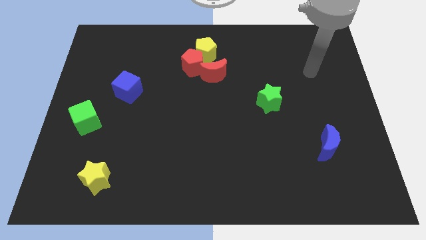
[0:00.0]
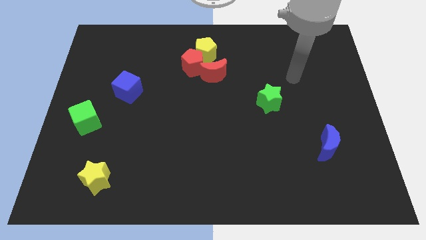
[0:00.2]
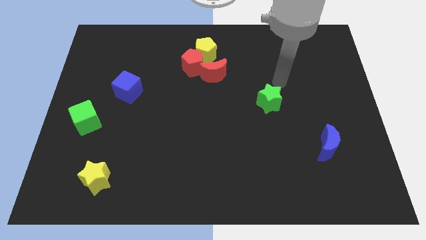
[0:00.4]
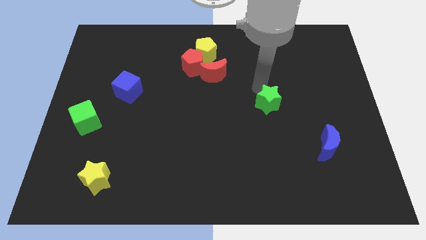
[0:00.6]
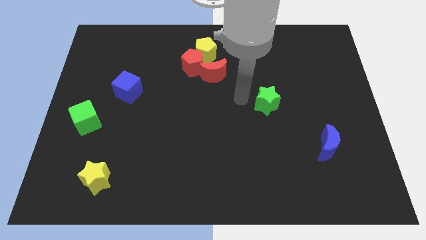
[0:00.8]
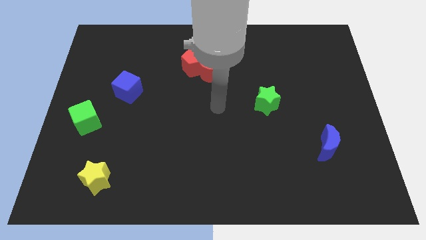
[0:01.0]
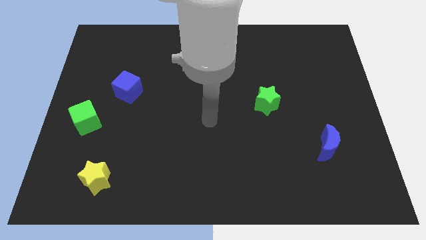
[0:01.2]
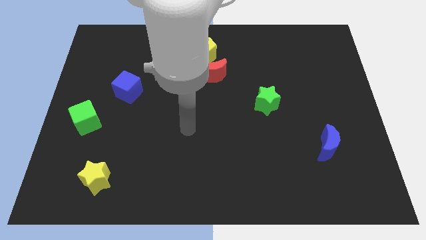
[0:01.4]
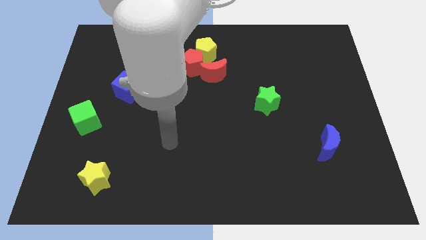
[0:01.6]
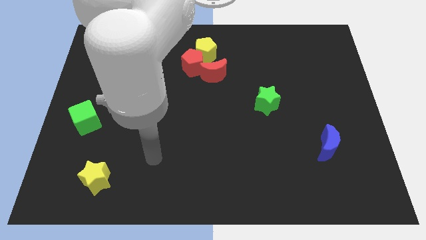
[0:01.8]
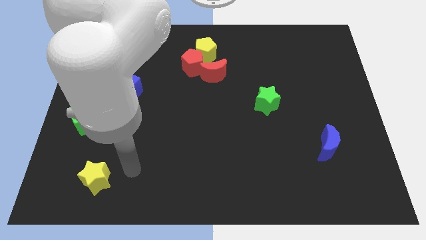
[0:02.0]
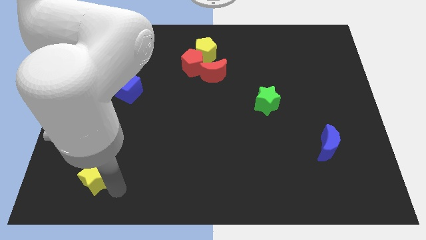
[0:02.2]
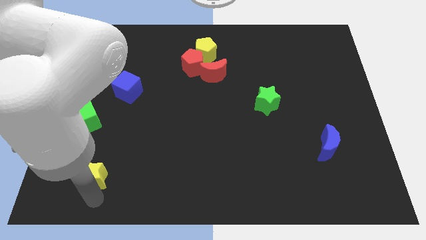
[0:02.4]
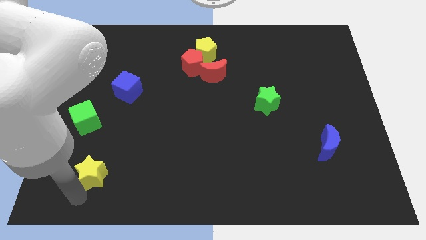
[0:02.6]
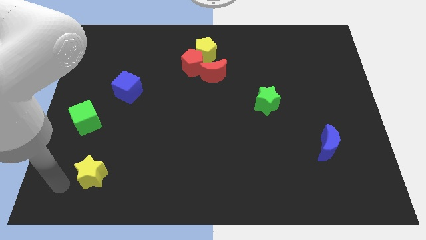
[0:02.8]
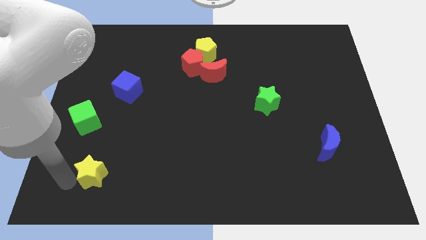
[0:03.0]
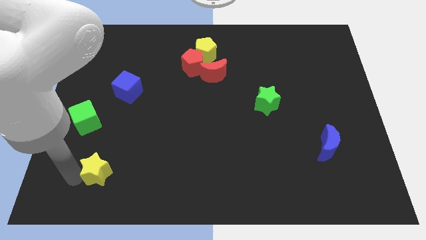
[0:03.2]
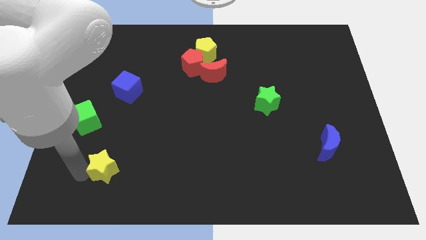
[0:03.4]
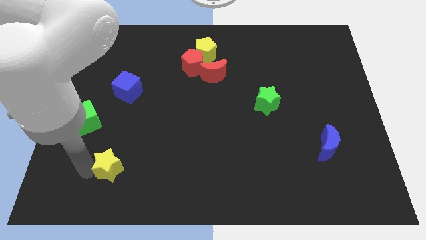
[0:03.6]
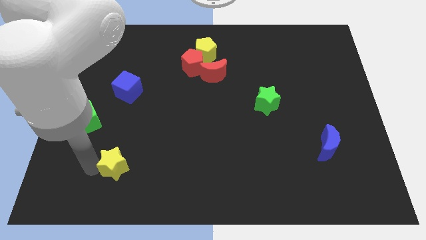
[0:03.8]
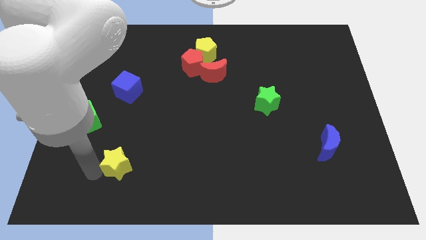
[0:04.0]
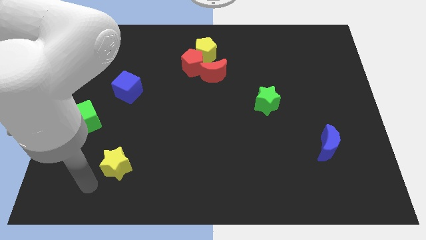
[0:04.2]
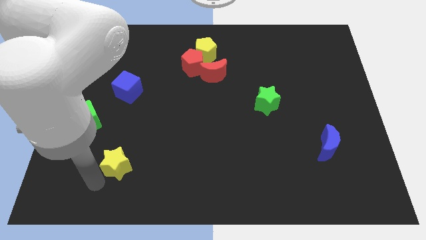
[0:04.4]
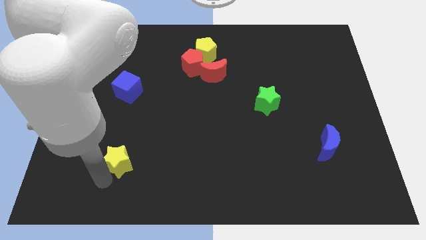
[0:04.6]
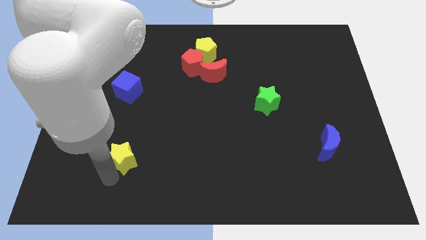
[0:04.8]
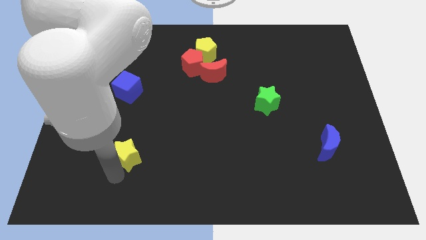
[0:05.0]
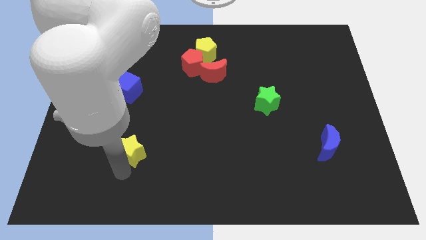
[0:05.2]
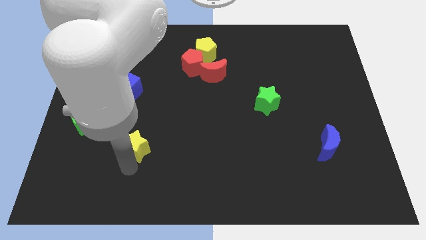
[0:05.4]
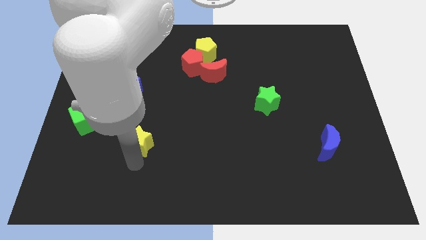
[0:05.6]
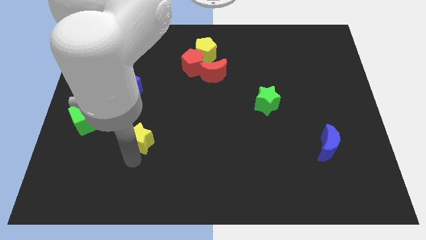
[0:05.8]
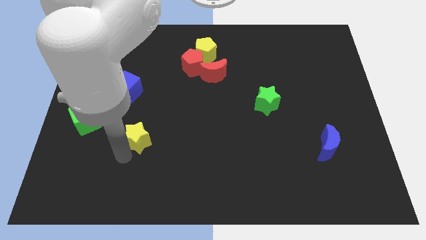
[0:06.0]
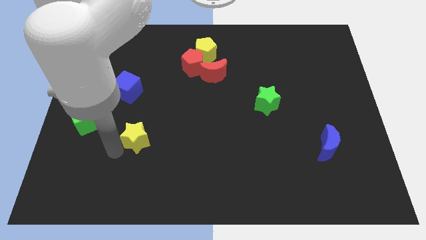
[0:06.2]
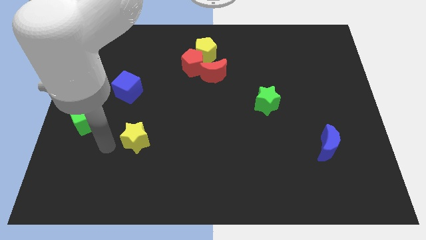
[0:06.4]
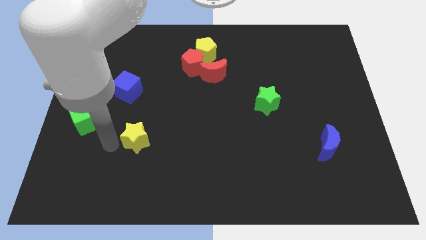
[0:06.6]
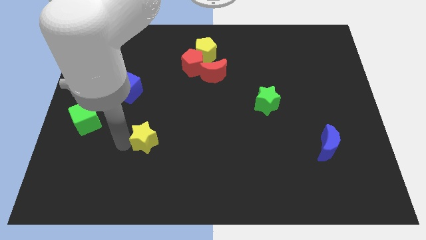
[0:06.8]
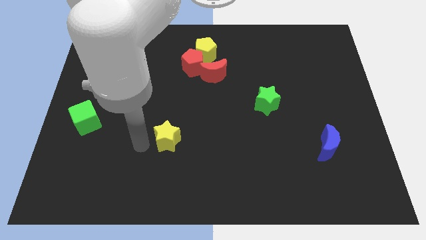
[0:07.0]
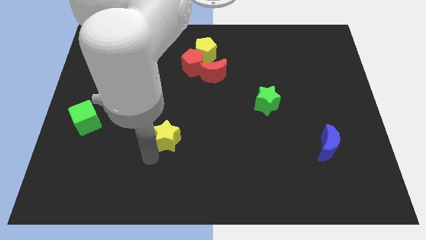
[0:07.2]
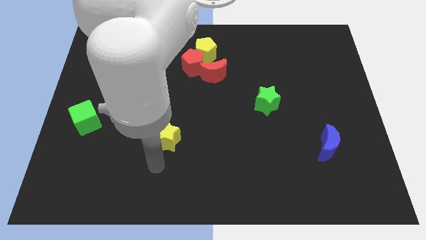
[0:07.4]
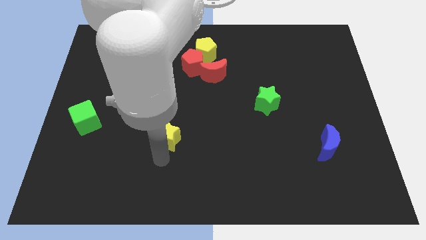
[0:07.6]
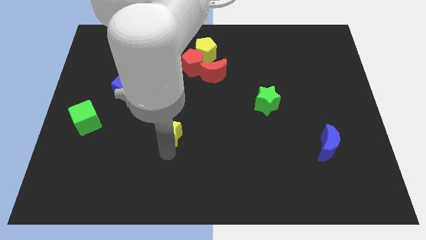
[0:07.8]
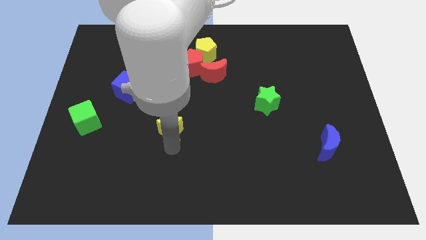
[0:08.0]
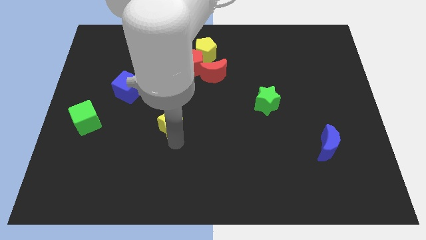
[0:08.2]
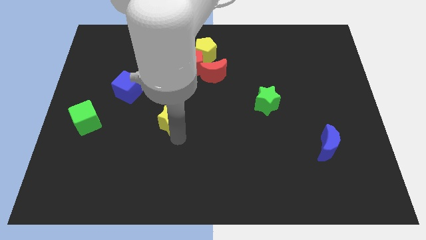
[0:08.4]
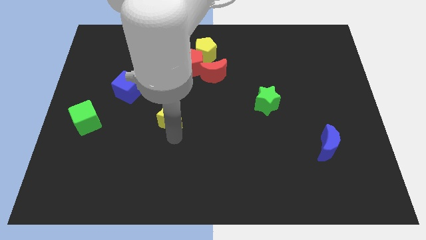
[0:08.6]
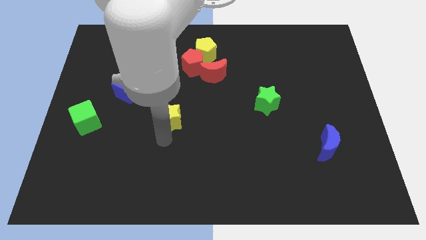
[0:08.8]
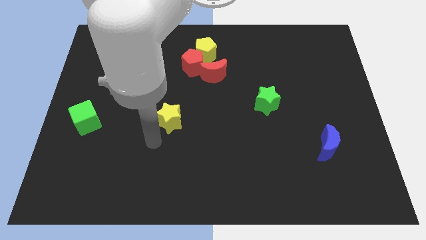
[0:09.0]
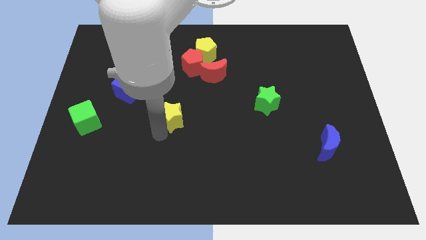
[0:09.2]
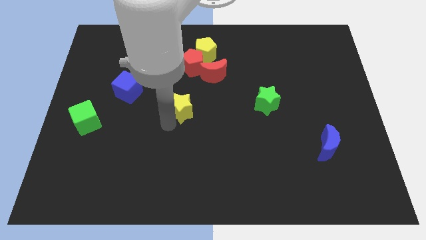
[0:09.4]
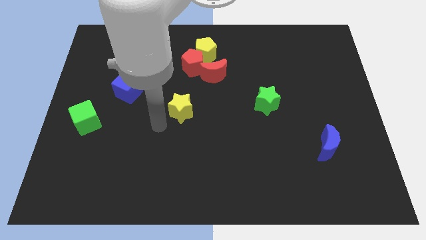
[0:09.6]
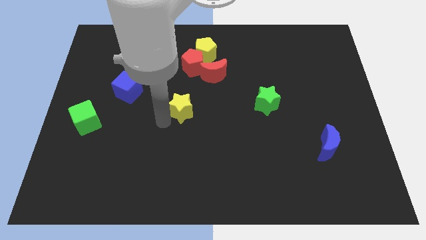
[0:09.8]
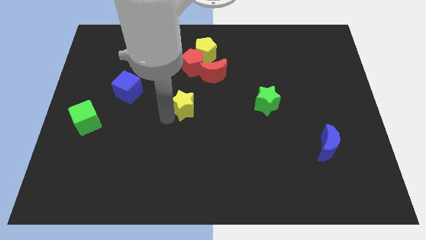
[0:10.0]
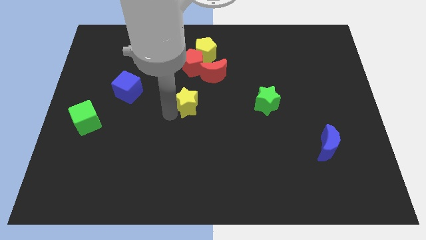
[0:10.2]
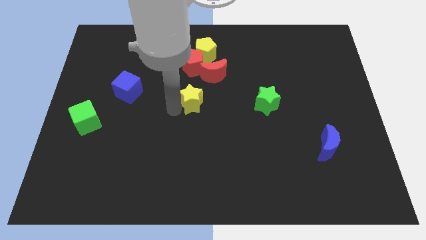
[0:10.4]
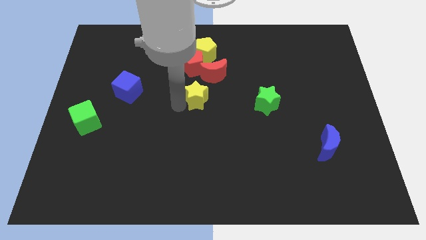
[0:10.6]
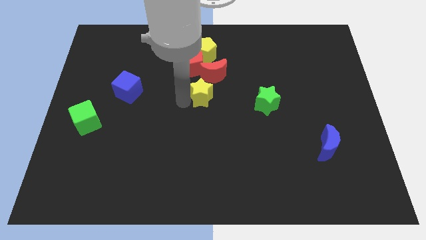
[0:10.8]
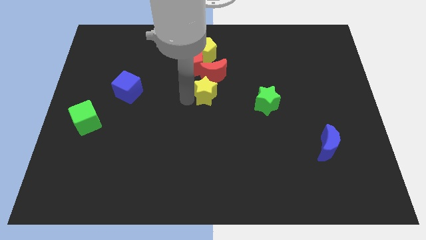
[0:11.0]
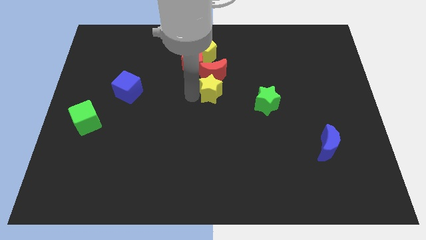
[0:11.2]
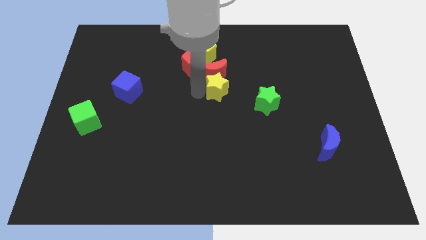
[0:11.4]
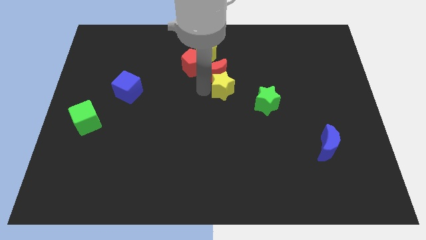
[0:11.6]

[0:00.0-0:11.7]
push the yellow star diagonally up and to the left of the green star

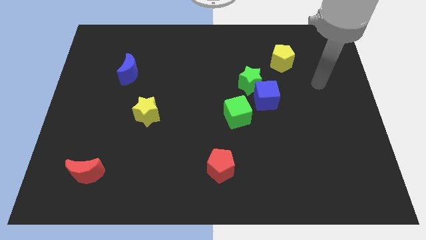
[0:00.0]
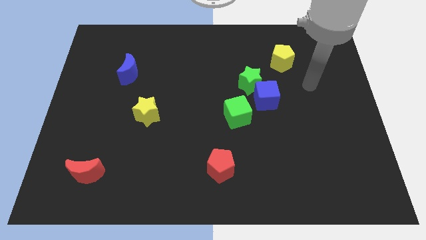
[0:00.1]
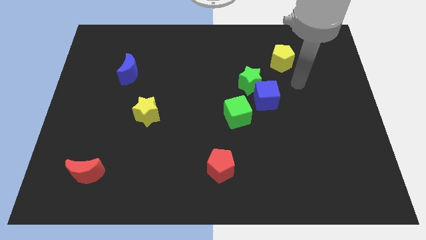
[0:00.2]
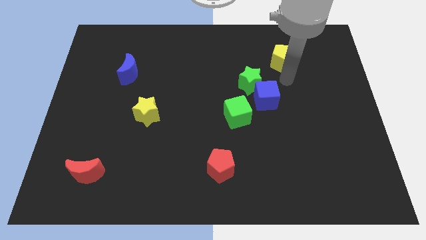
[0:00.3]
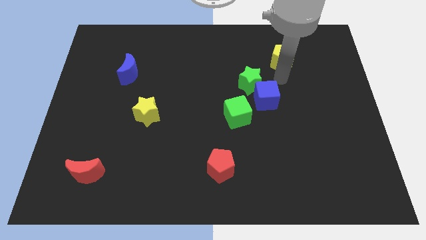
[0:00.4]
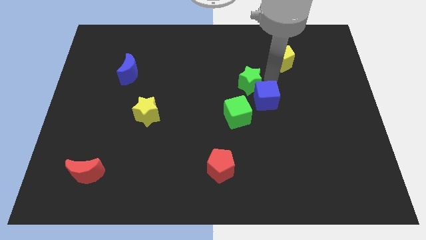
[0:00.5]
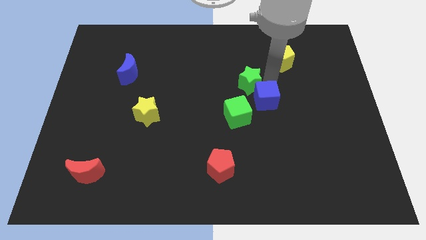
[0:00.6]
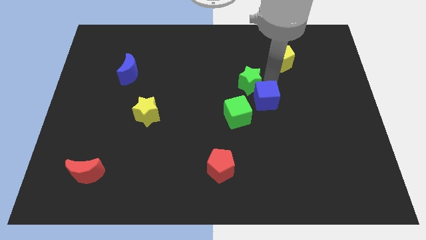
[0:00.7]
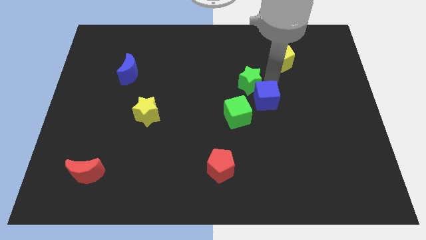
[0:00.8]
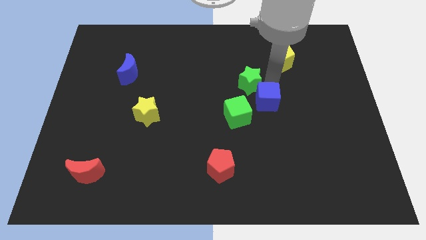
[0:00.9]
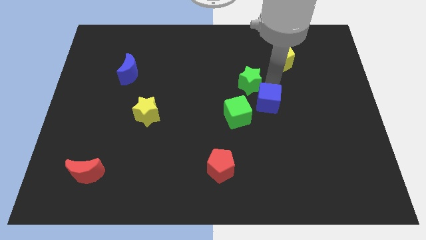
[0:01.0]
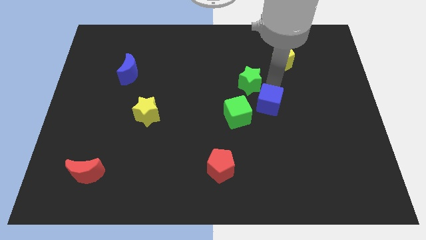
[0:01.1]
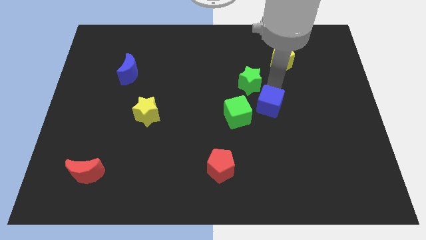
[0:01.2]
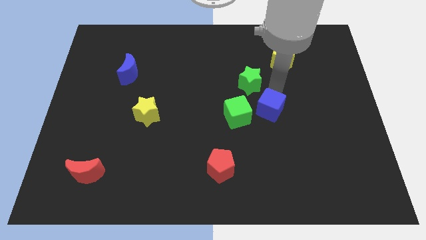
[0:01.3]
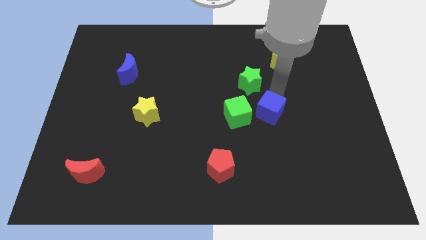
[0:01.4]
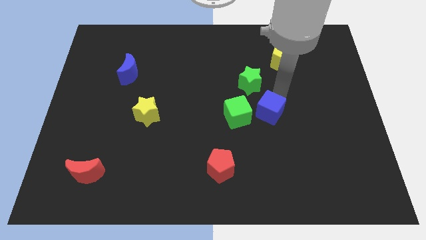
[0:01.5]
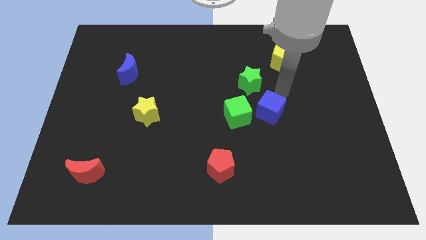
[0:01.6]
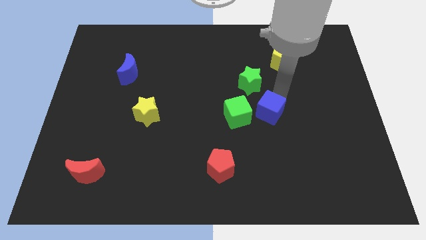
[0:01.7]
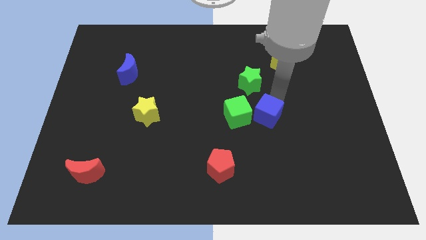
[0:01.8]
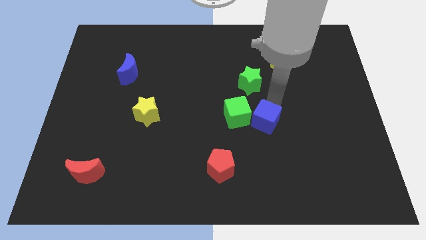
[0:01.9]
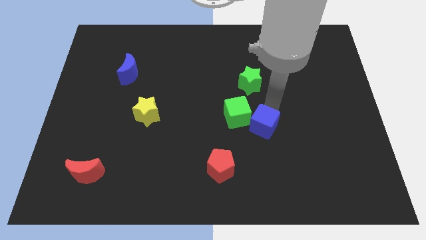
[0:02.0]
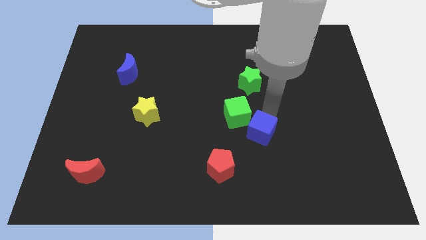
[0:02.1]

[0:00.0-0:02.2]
slide the blue cube to the top right of the red pentagon
